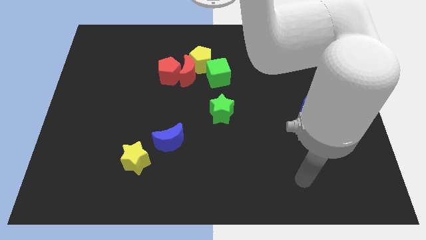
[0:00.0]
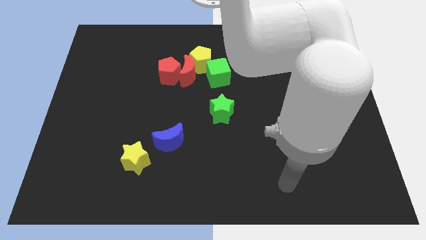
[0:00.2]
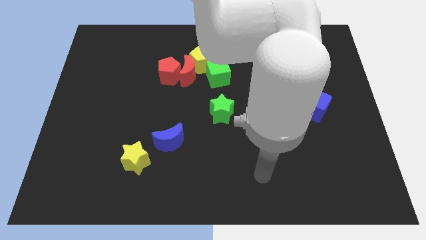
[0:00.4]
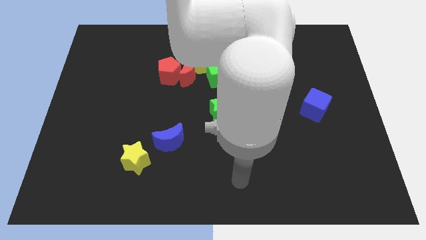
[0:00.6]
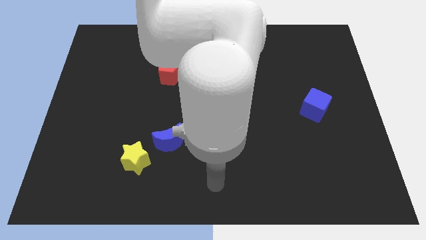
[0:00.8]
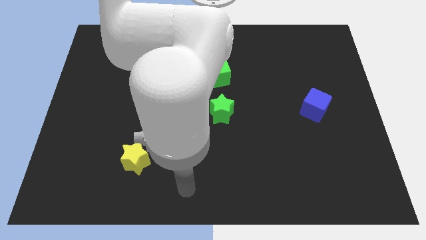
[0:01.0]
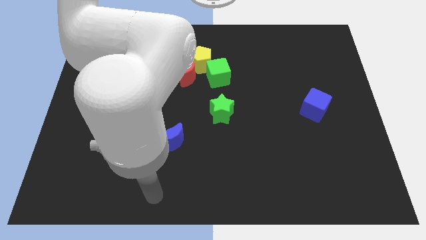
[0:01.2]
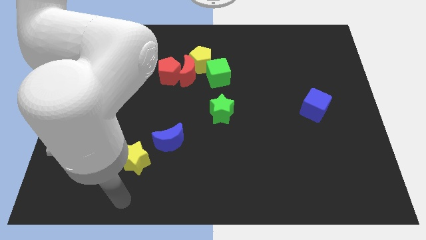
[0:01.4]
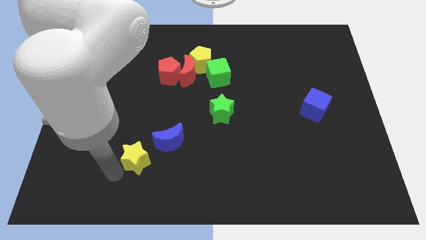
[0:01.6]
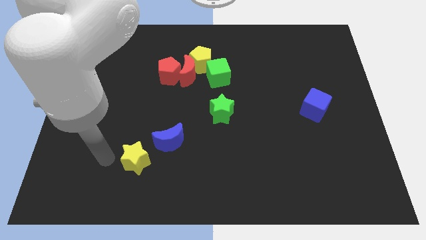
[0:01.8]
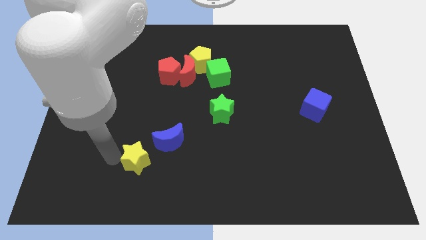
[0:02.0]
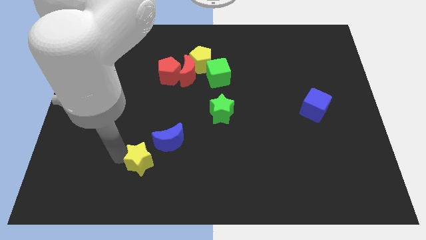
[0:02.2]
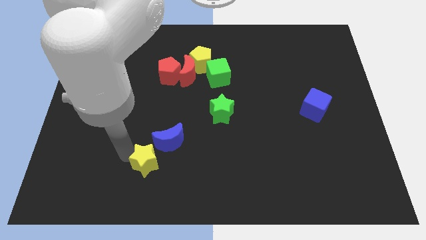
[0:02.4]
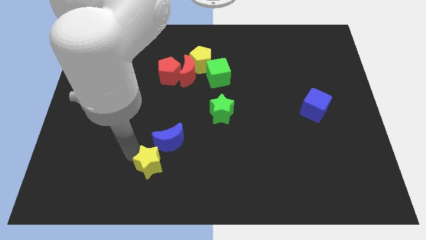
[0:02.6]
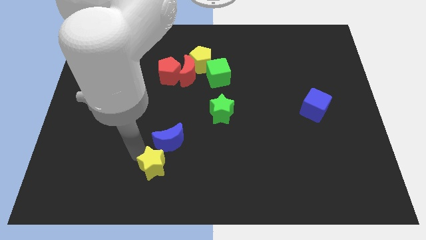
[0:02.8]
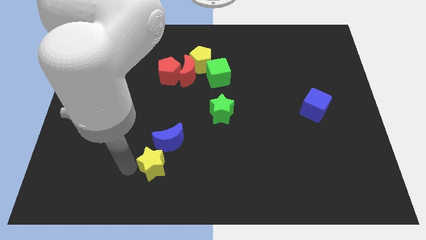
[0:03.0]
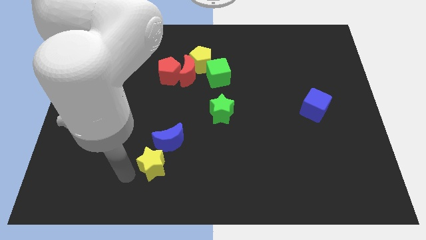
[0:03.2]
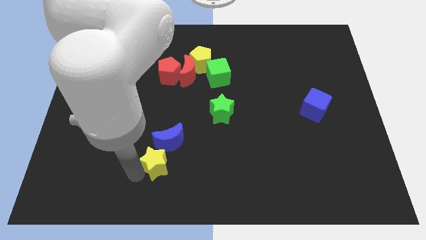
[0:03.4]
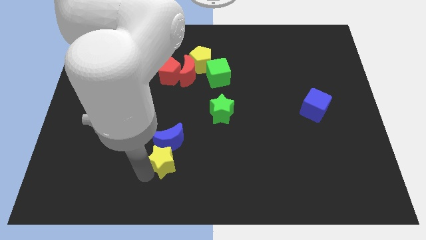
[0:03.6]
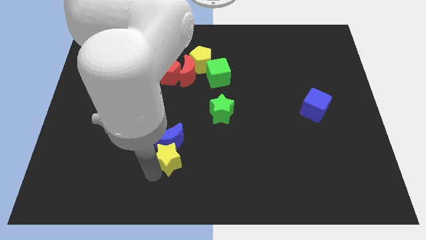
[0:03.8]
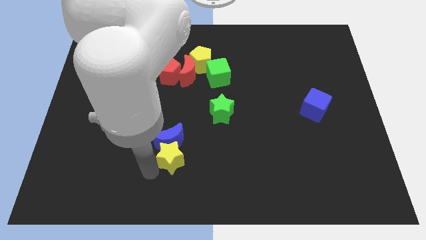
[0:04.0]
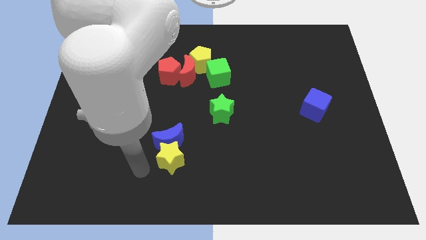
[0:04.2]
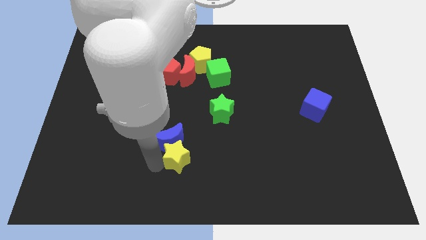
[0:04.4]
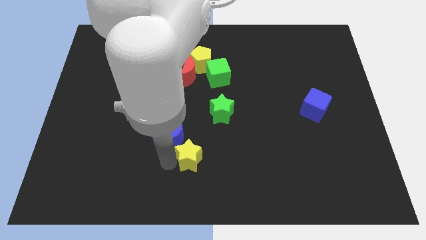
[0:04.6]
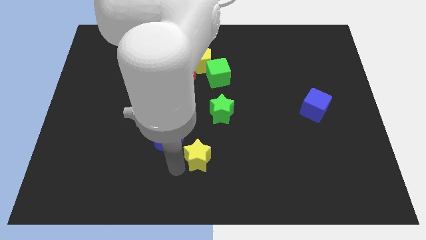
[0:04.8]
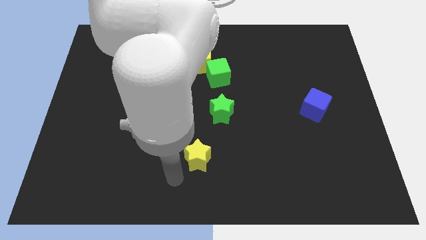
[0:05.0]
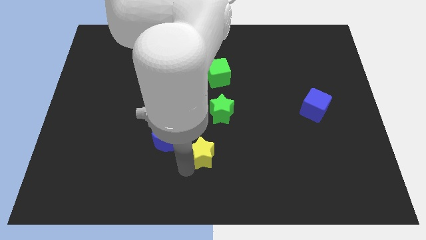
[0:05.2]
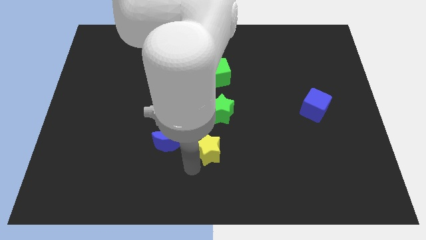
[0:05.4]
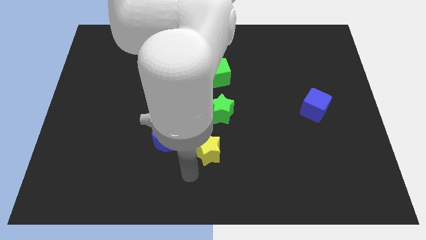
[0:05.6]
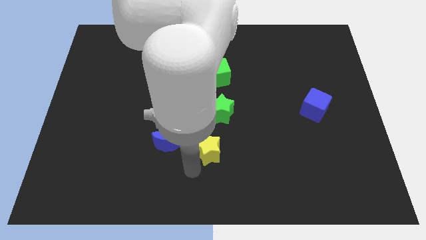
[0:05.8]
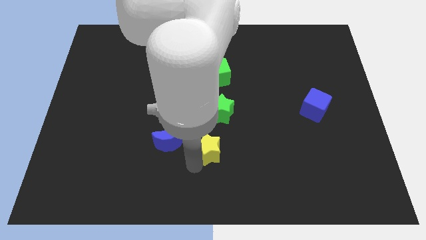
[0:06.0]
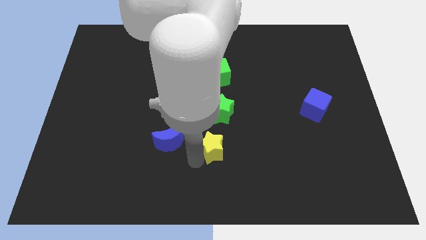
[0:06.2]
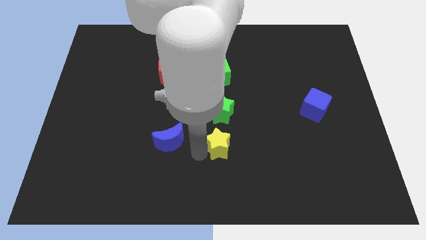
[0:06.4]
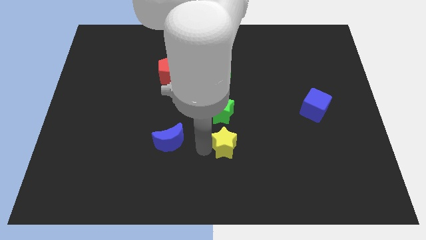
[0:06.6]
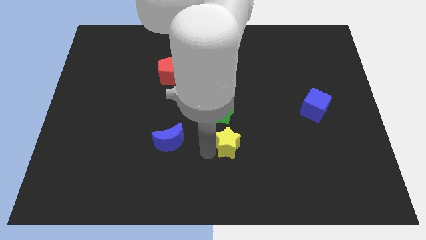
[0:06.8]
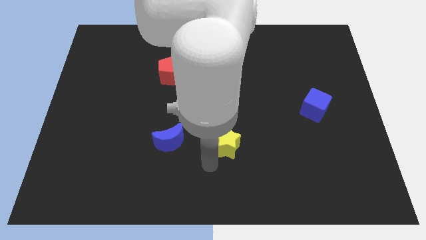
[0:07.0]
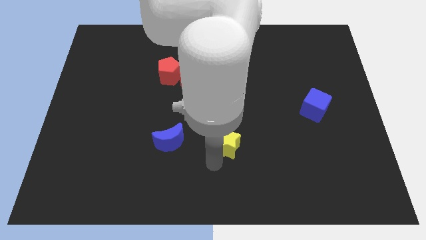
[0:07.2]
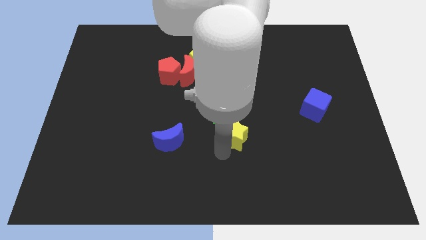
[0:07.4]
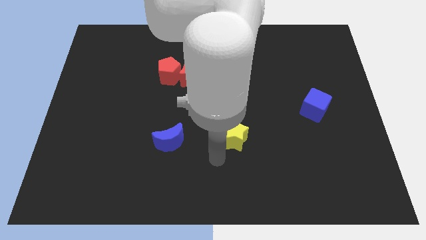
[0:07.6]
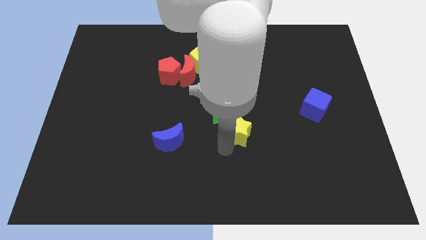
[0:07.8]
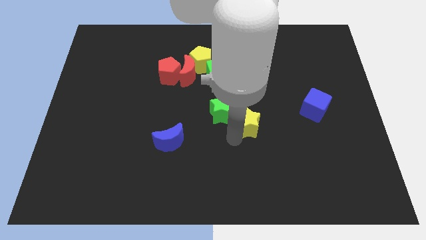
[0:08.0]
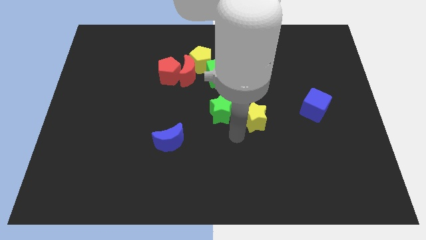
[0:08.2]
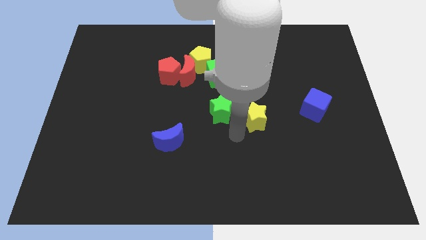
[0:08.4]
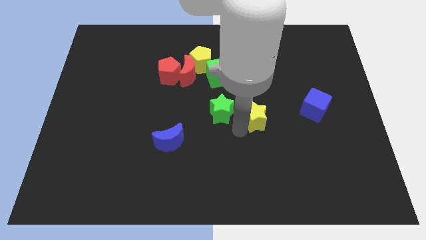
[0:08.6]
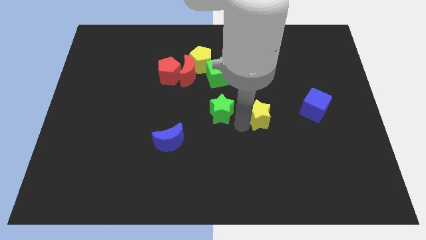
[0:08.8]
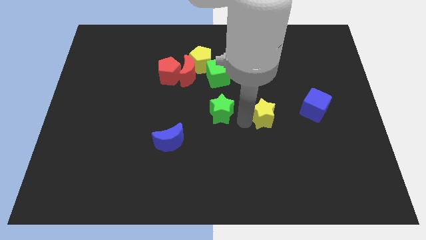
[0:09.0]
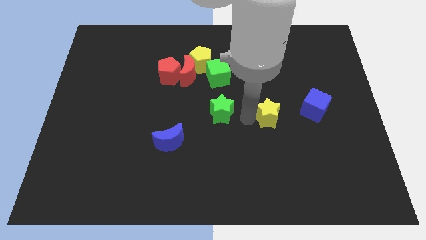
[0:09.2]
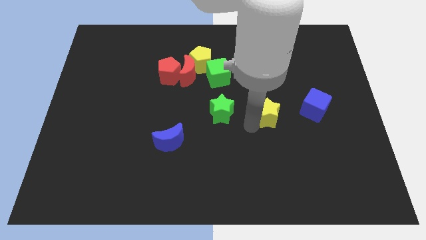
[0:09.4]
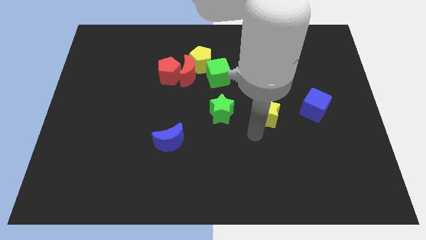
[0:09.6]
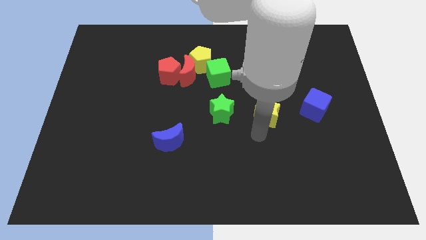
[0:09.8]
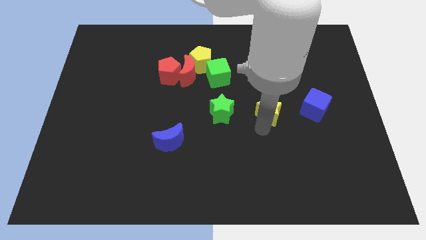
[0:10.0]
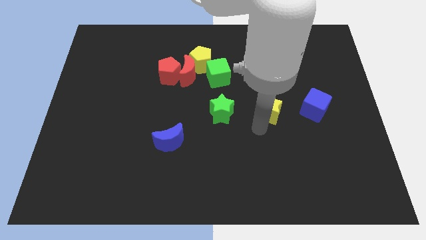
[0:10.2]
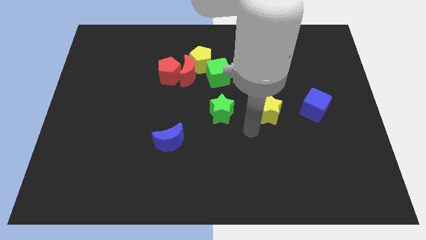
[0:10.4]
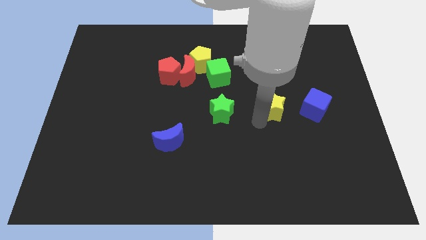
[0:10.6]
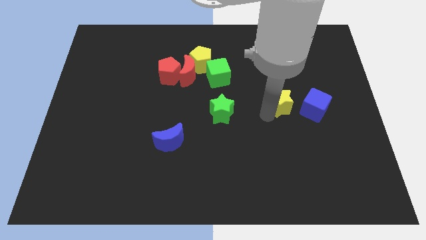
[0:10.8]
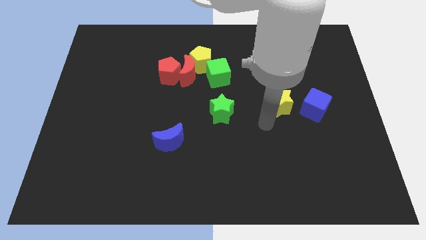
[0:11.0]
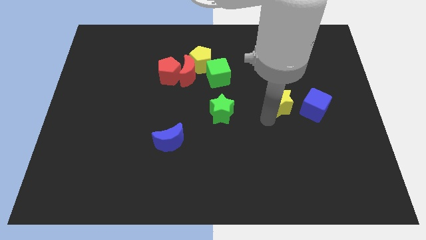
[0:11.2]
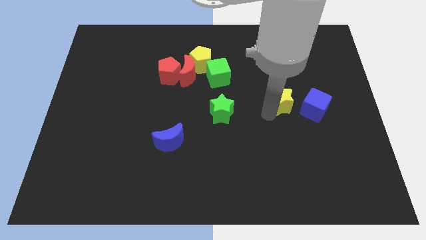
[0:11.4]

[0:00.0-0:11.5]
move the yellow star to the top left side of the blue cube
